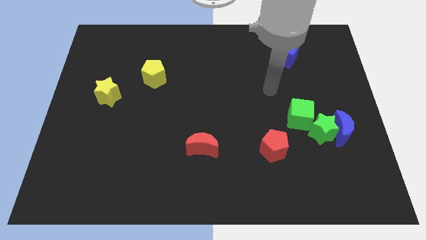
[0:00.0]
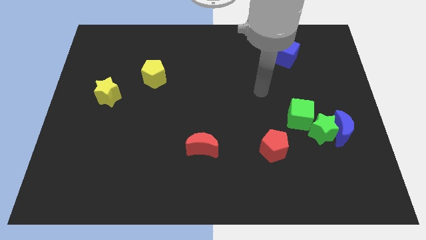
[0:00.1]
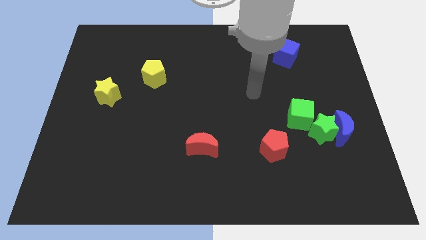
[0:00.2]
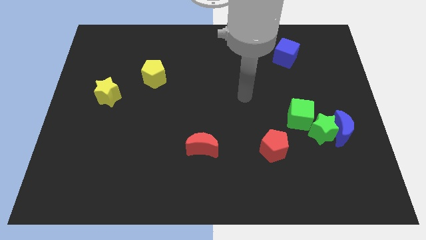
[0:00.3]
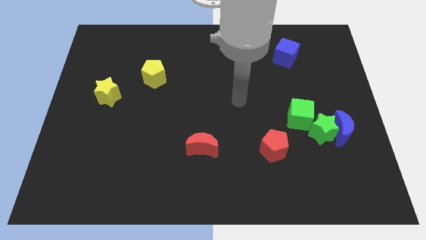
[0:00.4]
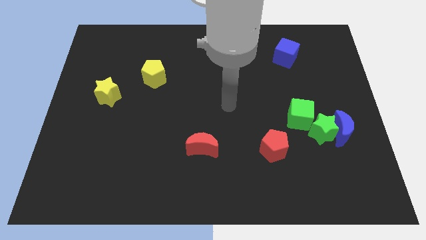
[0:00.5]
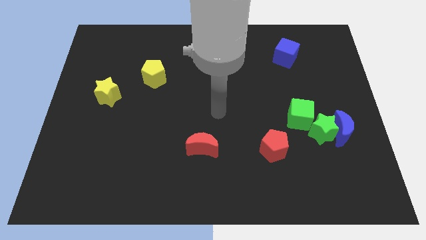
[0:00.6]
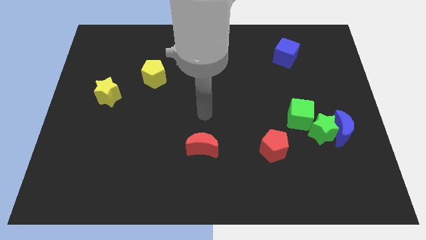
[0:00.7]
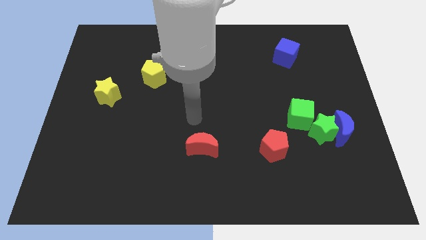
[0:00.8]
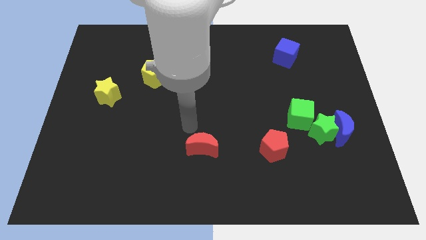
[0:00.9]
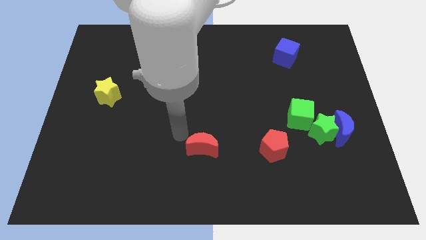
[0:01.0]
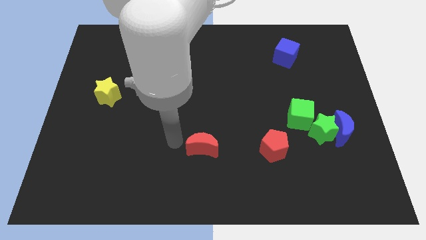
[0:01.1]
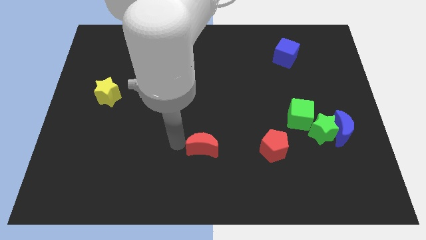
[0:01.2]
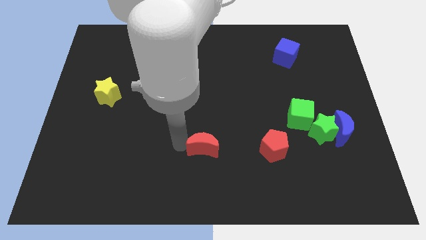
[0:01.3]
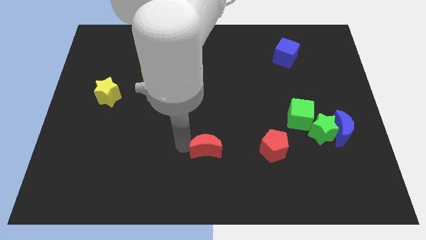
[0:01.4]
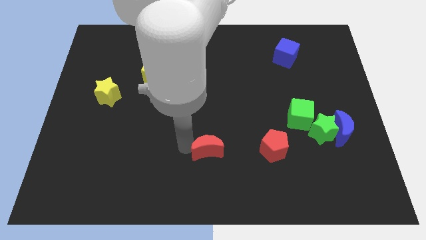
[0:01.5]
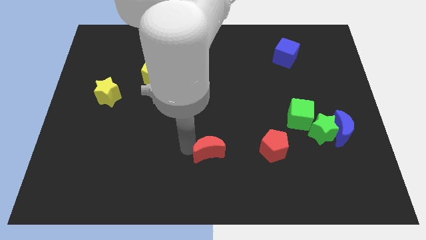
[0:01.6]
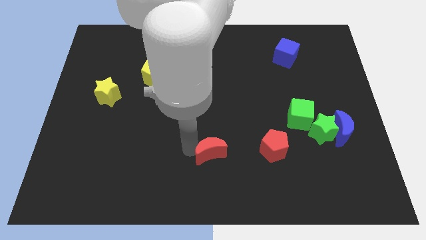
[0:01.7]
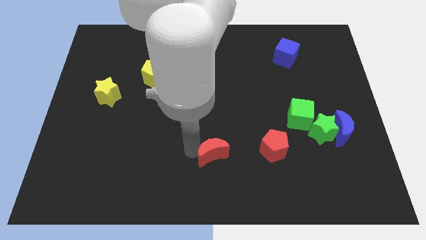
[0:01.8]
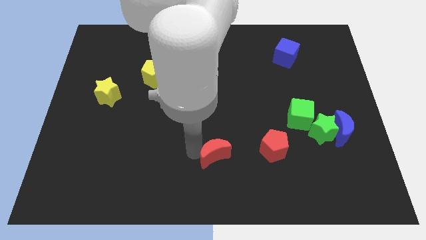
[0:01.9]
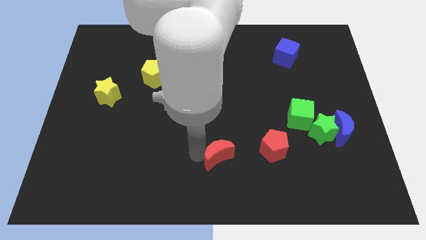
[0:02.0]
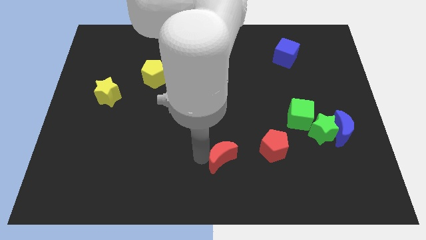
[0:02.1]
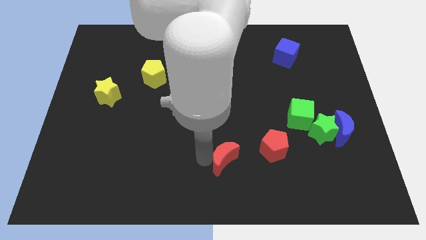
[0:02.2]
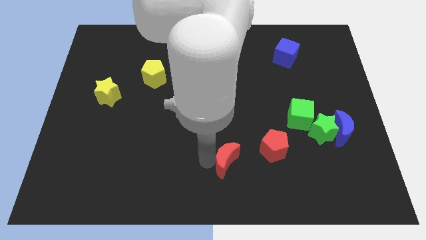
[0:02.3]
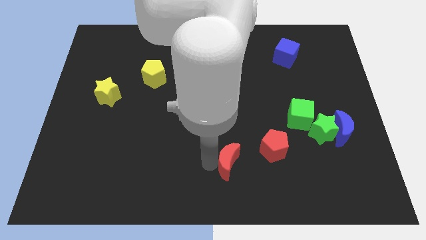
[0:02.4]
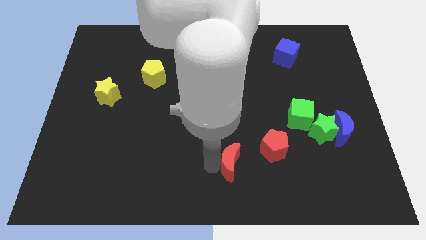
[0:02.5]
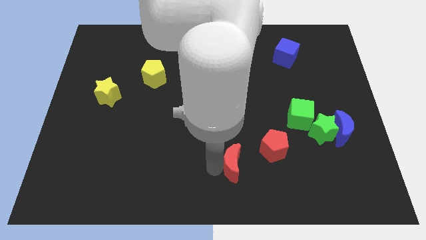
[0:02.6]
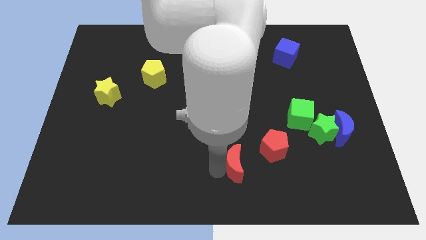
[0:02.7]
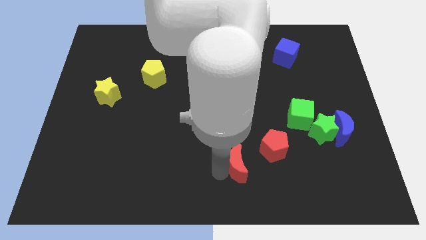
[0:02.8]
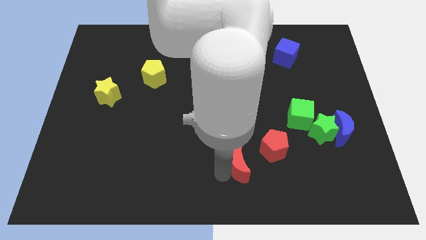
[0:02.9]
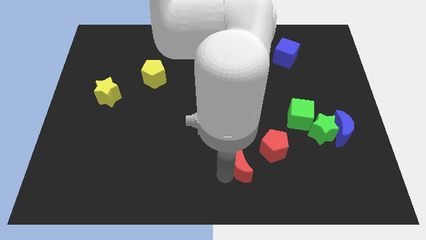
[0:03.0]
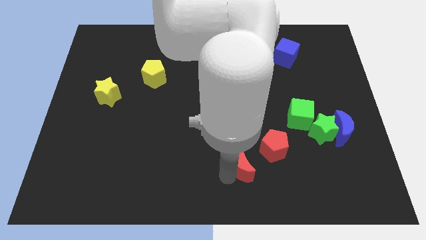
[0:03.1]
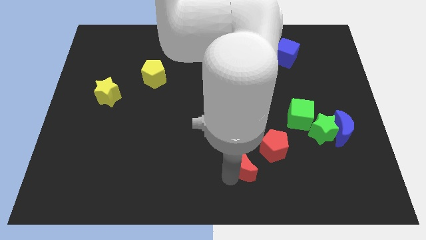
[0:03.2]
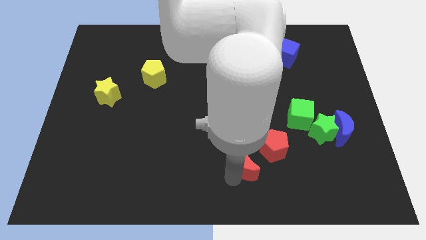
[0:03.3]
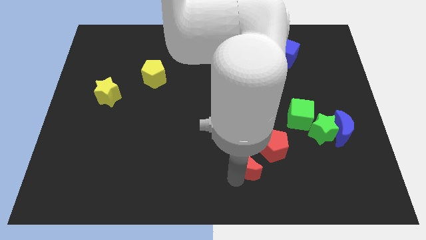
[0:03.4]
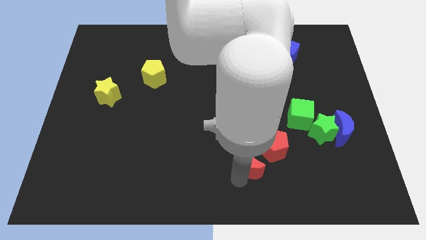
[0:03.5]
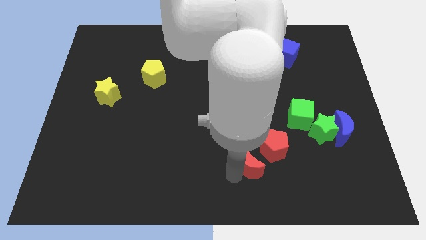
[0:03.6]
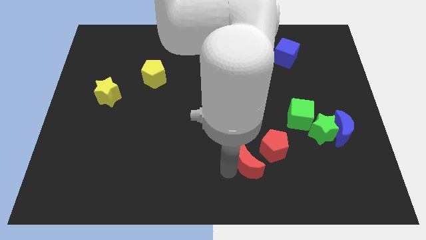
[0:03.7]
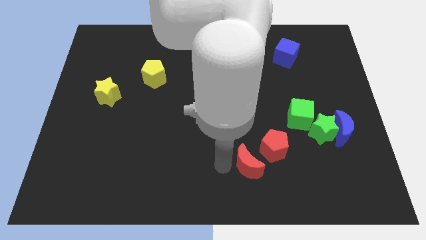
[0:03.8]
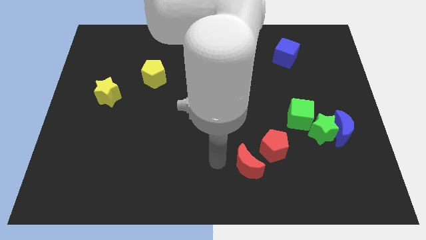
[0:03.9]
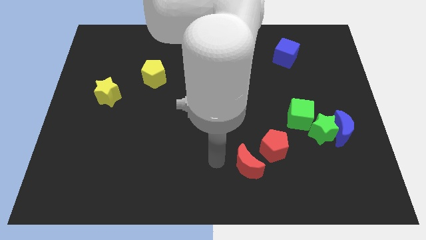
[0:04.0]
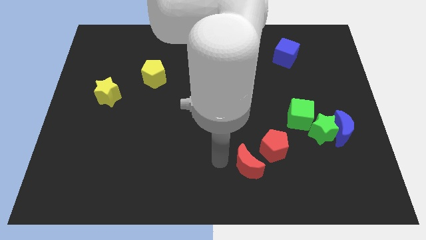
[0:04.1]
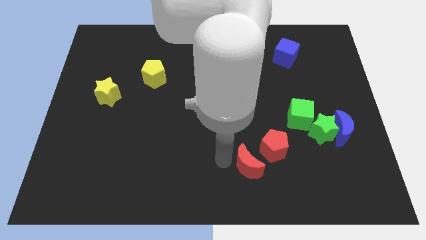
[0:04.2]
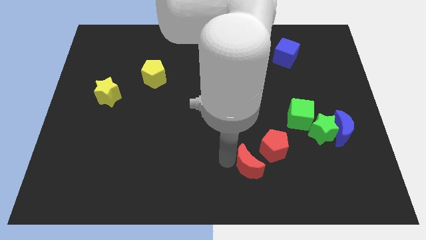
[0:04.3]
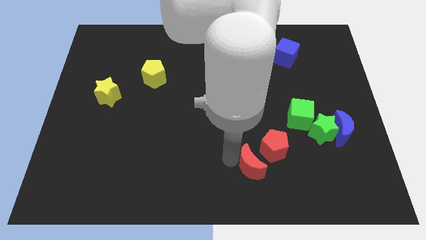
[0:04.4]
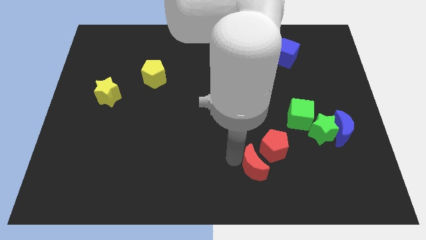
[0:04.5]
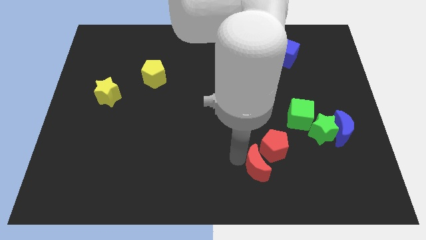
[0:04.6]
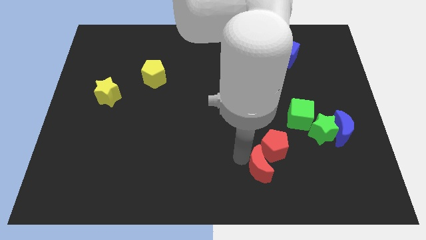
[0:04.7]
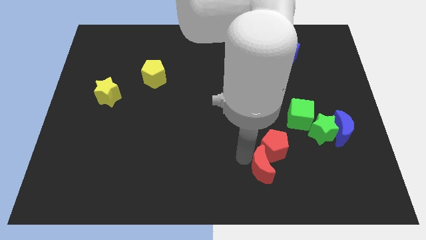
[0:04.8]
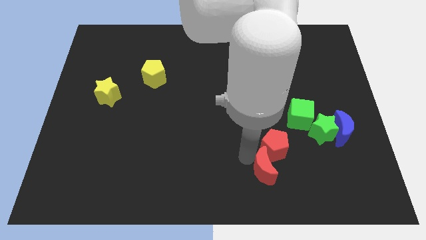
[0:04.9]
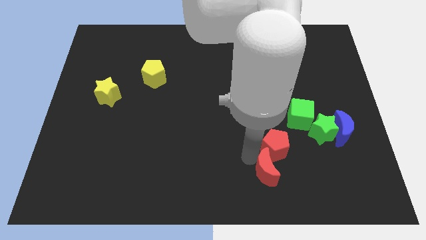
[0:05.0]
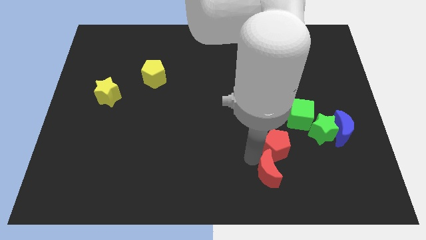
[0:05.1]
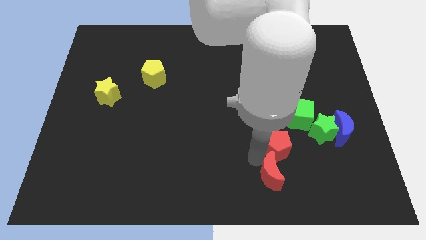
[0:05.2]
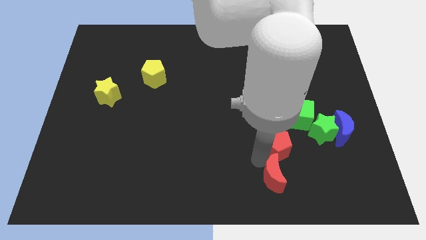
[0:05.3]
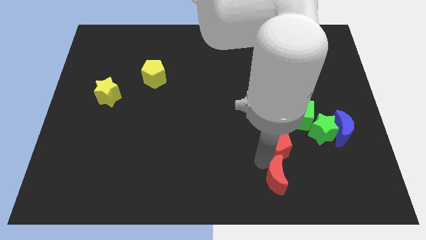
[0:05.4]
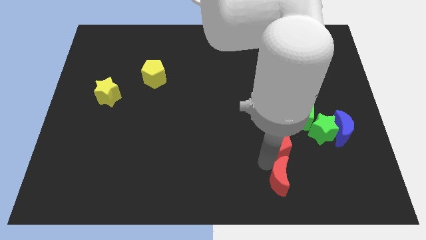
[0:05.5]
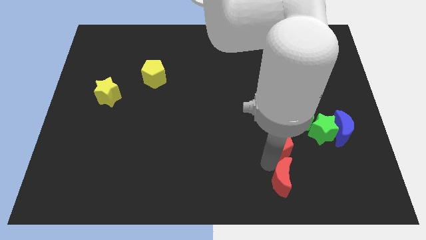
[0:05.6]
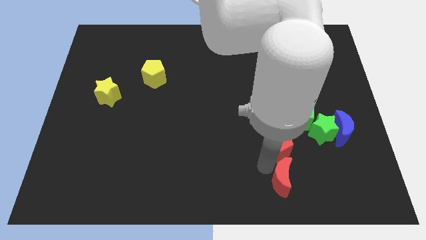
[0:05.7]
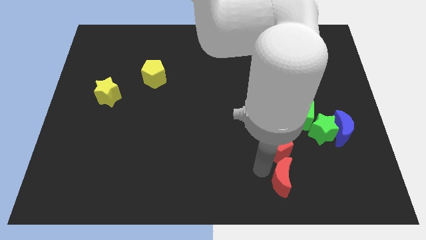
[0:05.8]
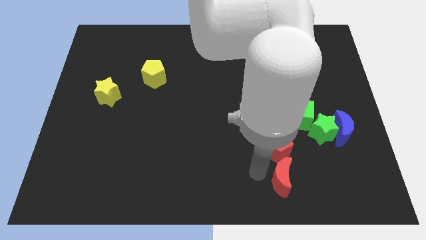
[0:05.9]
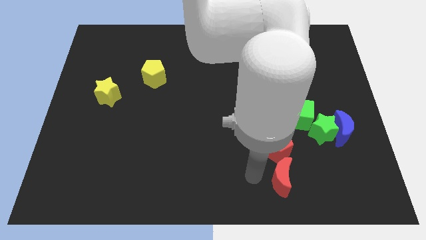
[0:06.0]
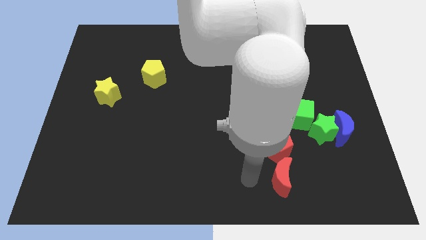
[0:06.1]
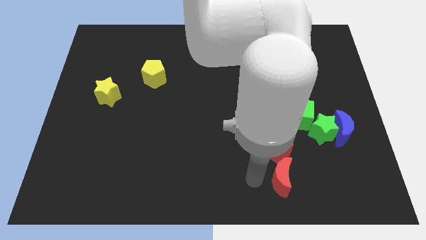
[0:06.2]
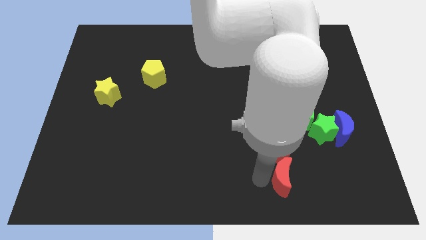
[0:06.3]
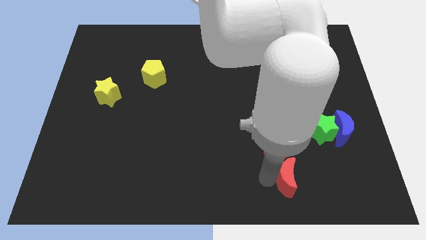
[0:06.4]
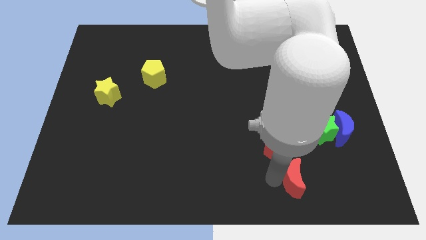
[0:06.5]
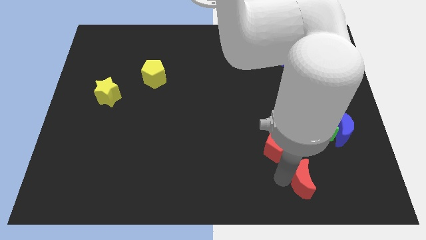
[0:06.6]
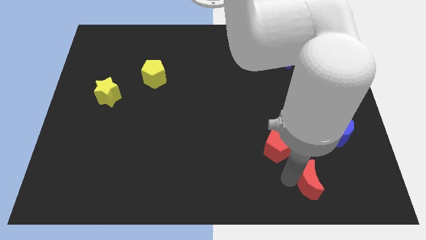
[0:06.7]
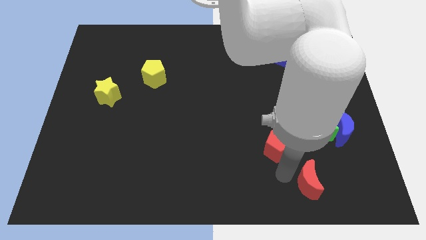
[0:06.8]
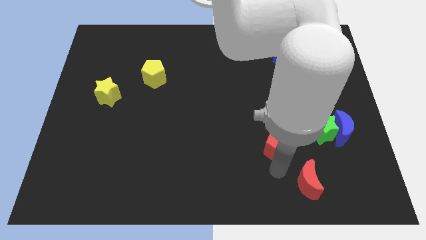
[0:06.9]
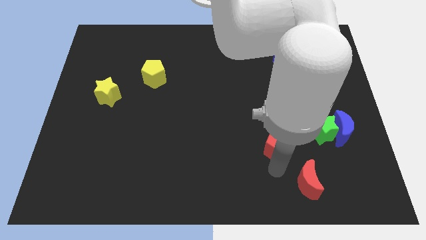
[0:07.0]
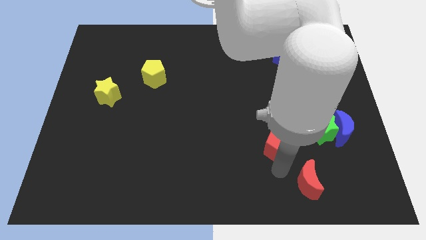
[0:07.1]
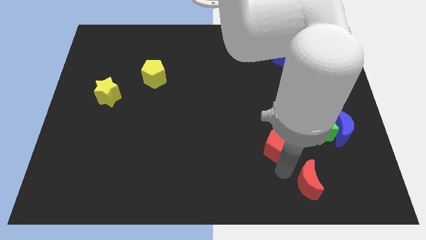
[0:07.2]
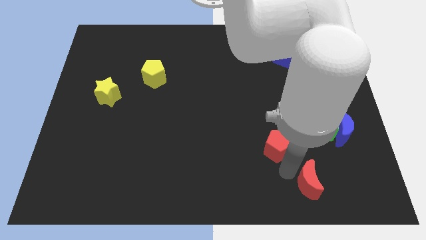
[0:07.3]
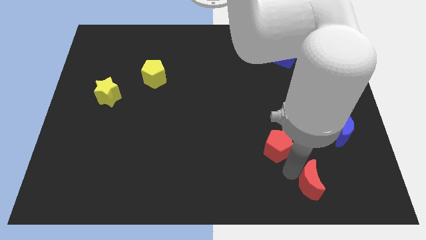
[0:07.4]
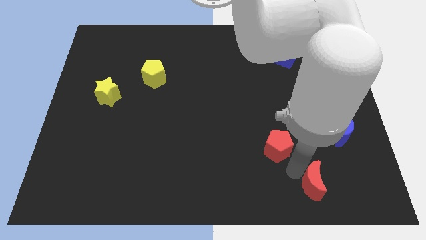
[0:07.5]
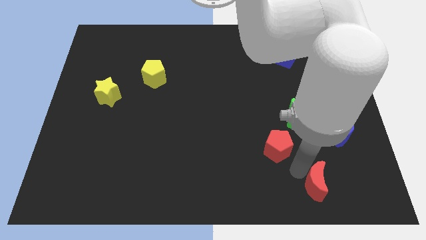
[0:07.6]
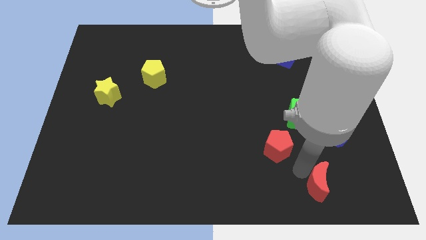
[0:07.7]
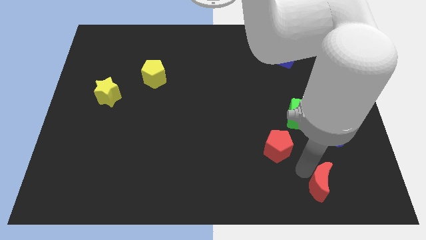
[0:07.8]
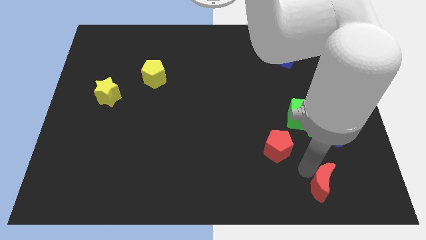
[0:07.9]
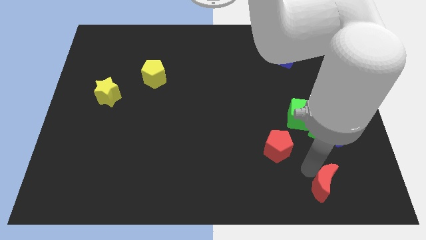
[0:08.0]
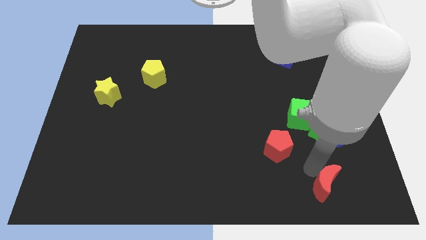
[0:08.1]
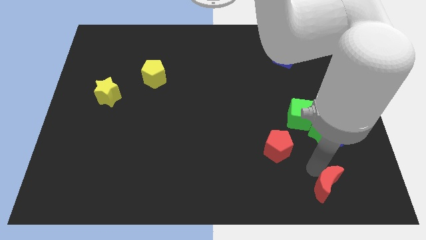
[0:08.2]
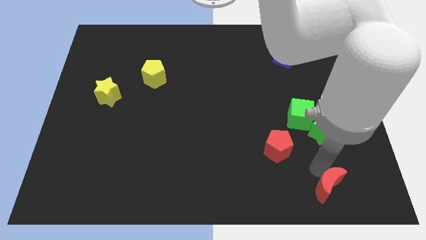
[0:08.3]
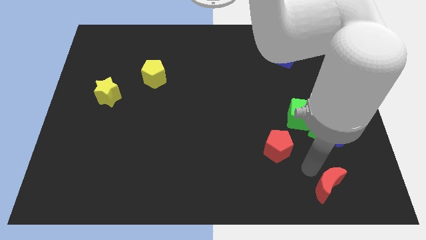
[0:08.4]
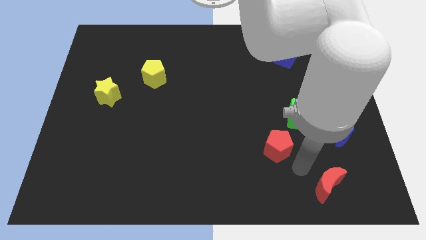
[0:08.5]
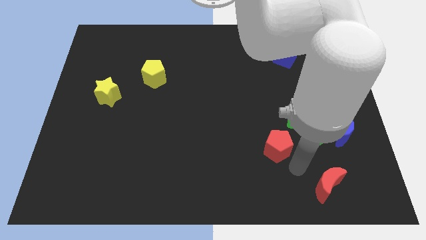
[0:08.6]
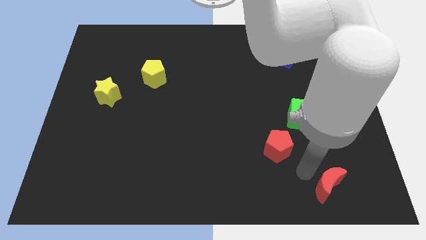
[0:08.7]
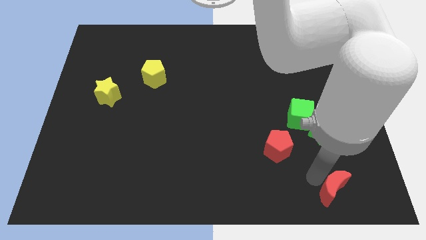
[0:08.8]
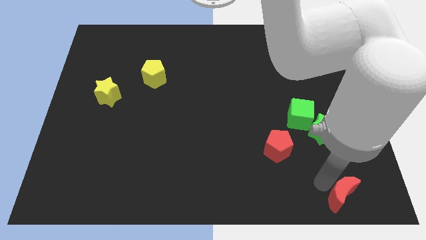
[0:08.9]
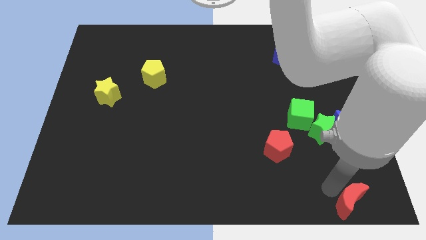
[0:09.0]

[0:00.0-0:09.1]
put the red moon to the lower right corner
